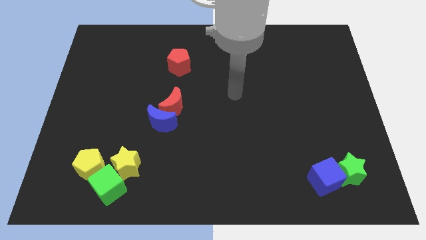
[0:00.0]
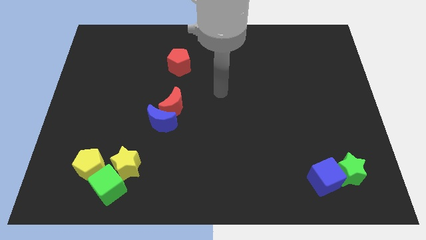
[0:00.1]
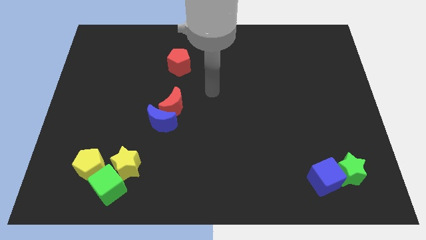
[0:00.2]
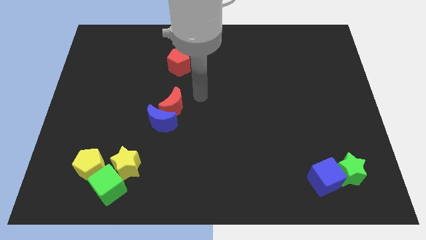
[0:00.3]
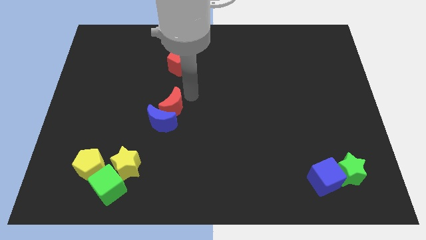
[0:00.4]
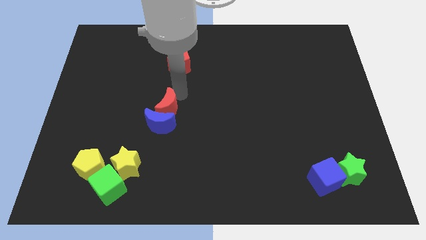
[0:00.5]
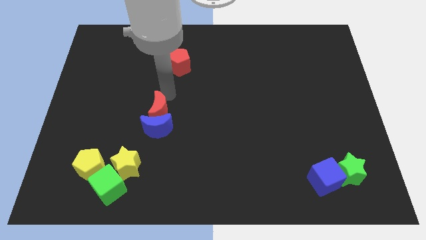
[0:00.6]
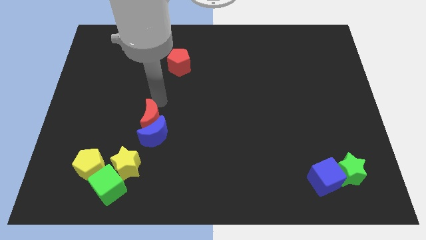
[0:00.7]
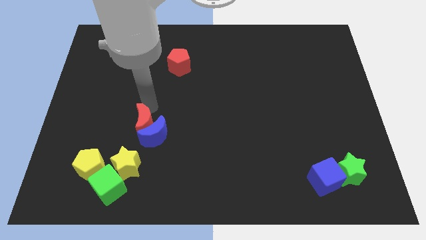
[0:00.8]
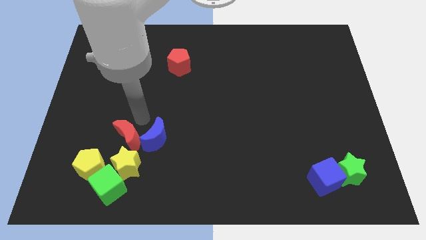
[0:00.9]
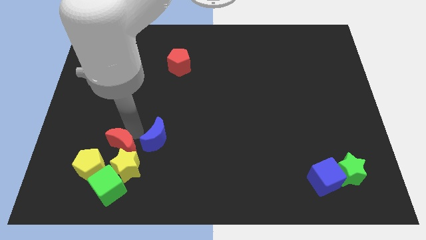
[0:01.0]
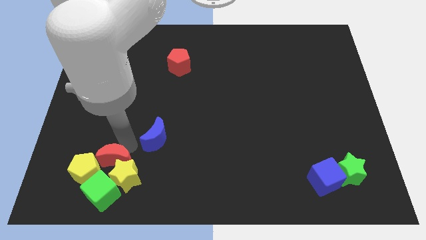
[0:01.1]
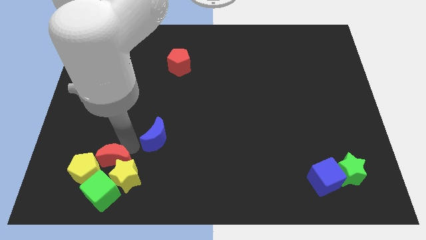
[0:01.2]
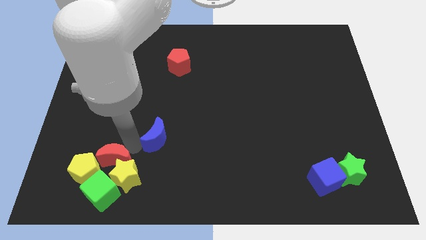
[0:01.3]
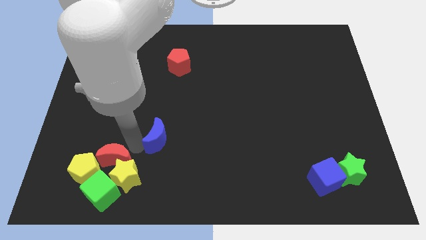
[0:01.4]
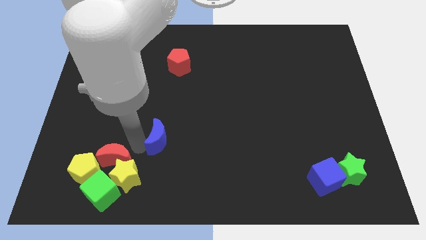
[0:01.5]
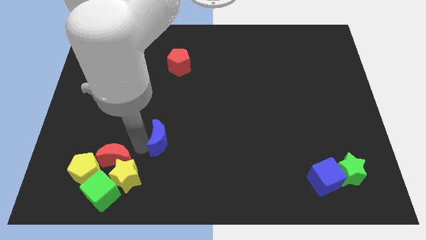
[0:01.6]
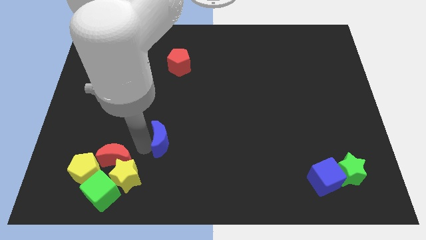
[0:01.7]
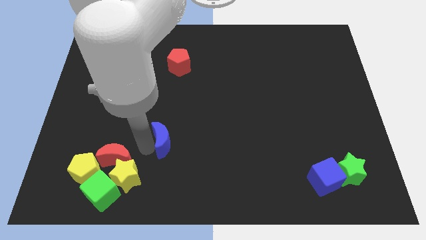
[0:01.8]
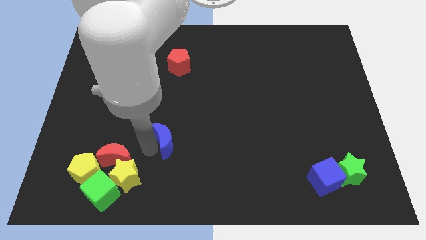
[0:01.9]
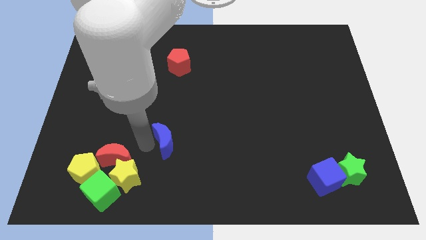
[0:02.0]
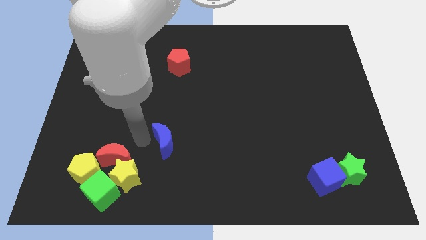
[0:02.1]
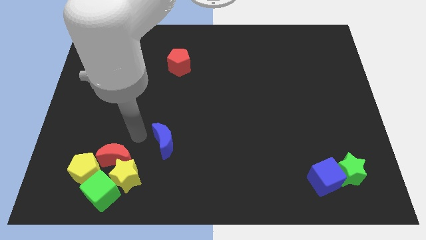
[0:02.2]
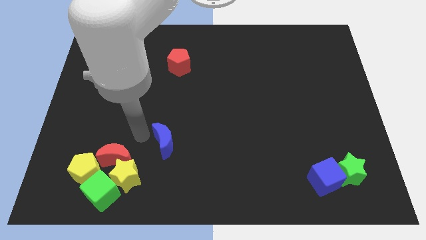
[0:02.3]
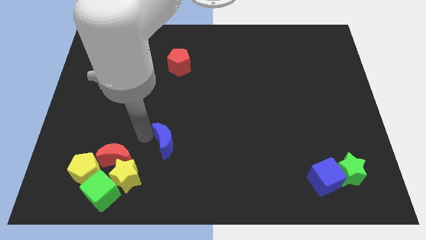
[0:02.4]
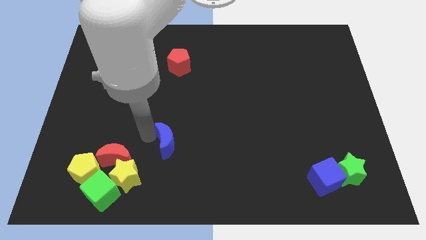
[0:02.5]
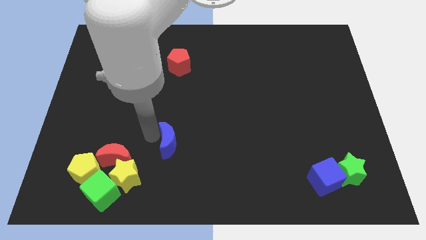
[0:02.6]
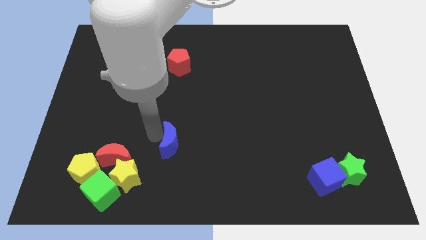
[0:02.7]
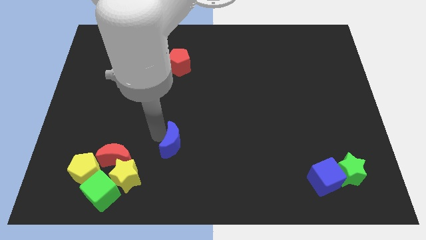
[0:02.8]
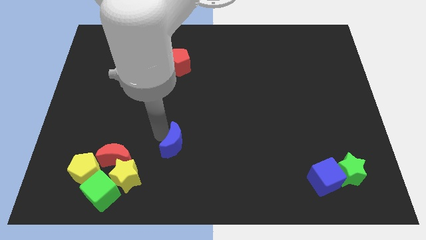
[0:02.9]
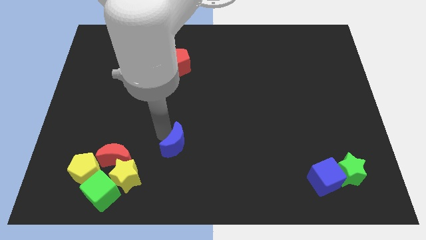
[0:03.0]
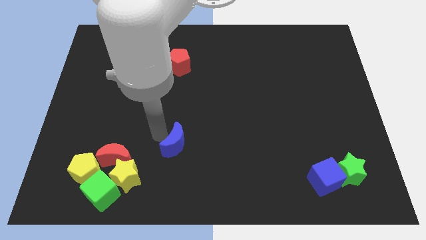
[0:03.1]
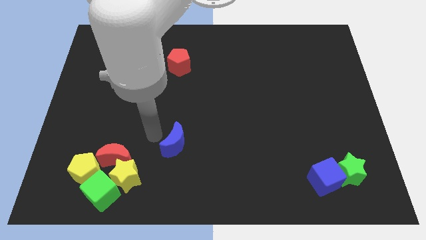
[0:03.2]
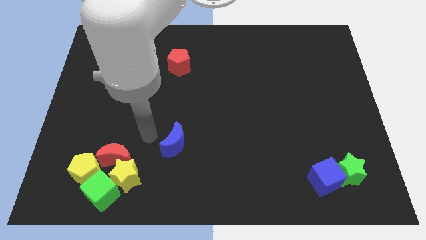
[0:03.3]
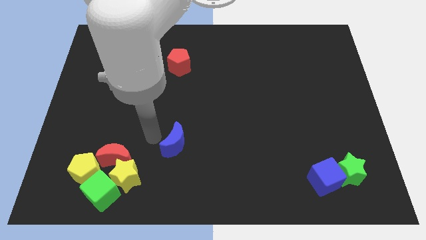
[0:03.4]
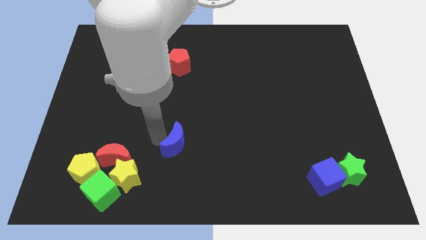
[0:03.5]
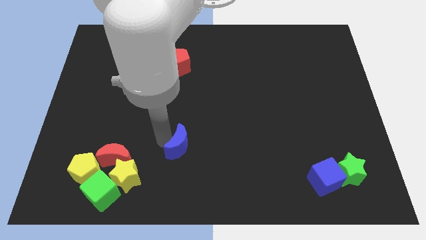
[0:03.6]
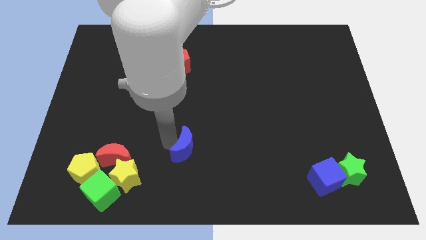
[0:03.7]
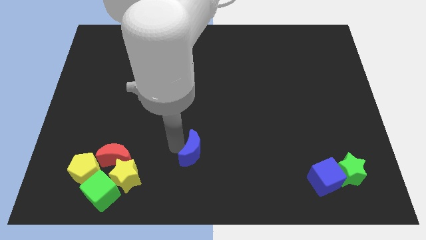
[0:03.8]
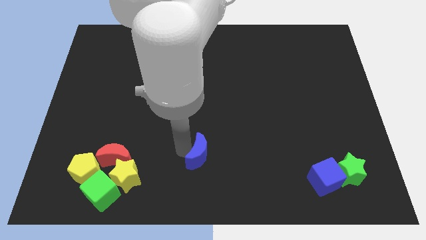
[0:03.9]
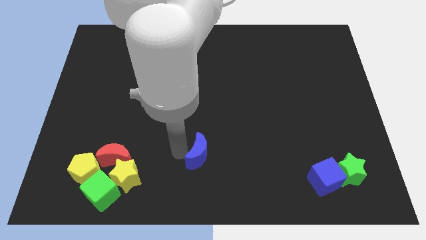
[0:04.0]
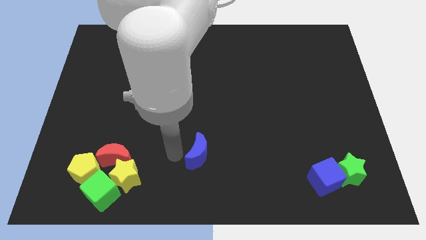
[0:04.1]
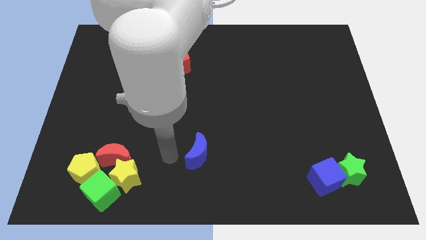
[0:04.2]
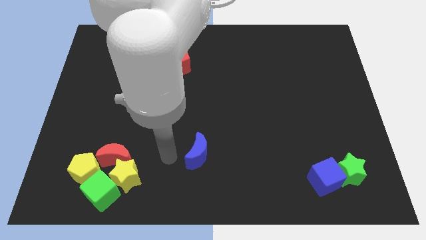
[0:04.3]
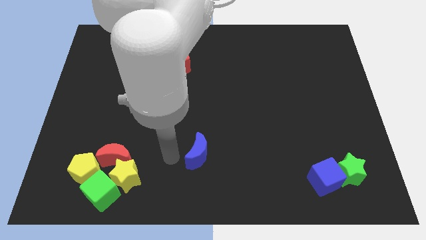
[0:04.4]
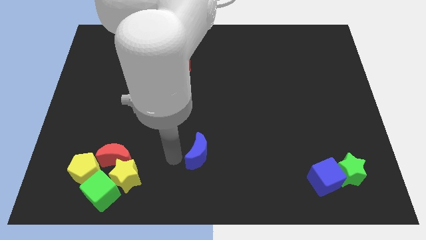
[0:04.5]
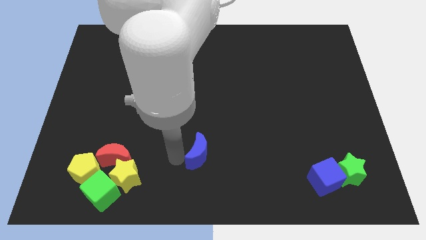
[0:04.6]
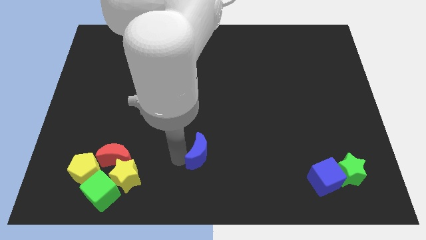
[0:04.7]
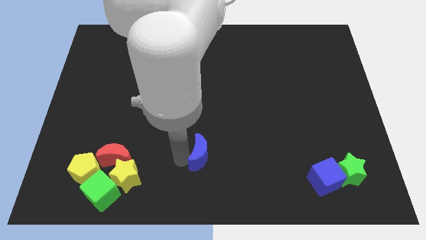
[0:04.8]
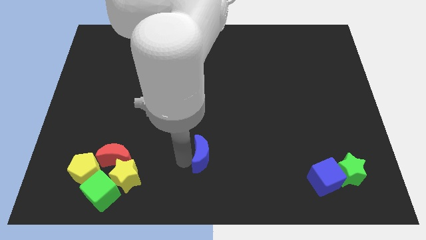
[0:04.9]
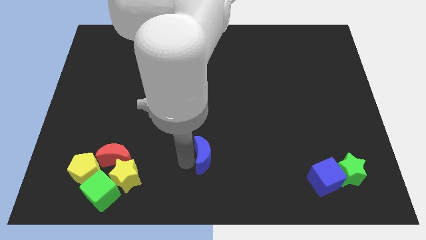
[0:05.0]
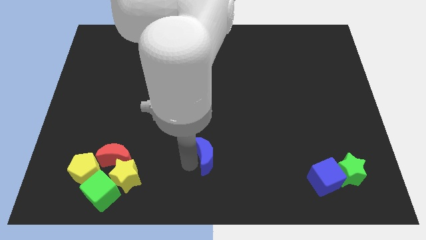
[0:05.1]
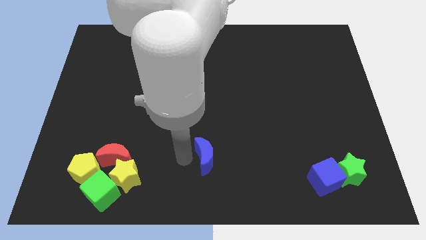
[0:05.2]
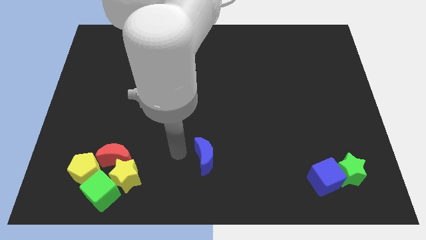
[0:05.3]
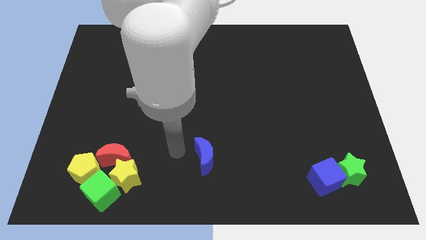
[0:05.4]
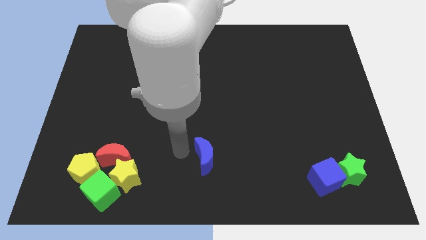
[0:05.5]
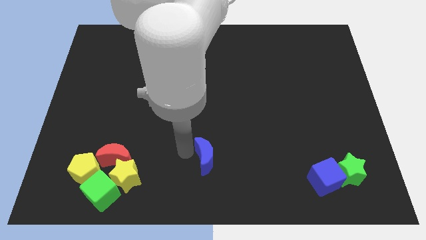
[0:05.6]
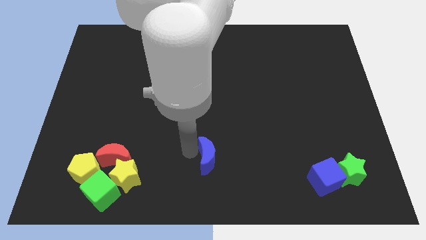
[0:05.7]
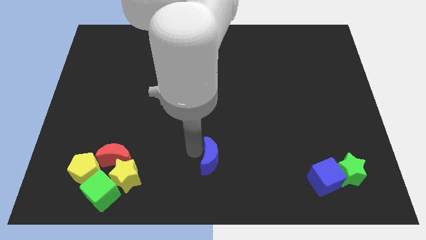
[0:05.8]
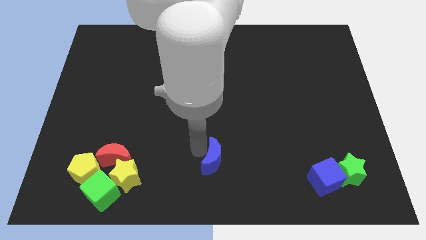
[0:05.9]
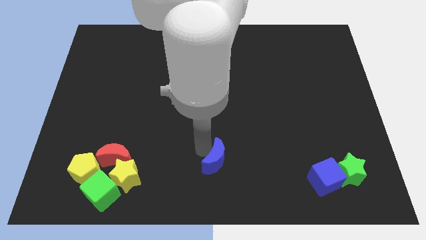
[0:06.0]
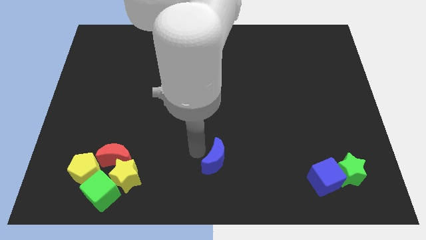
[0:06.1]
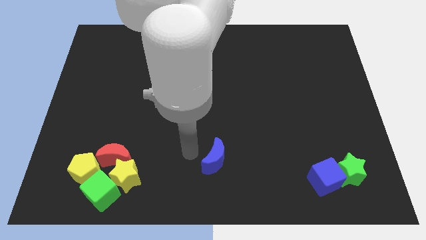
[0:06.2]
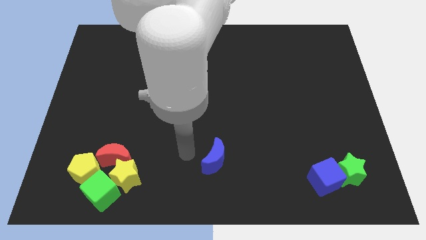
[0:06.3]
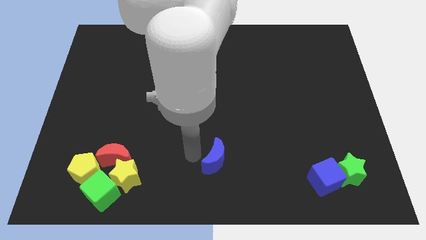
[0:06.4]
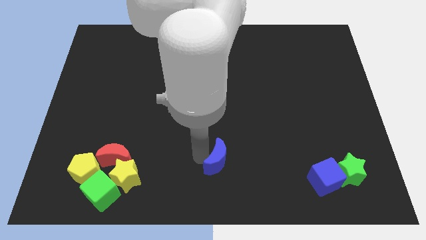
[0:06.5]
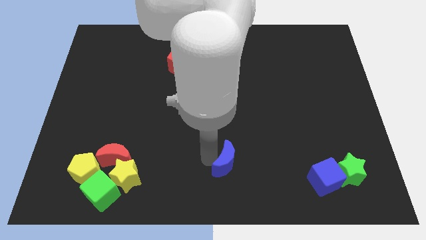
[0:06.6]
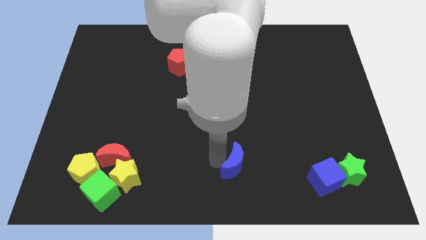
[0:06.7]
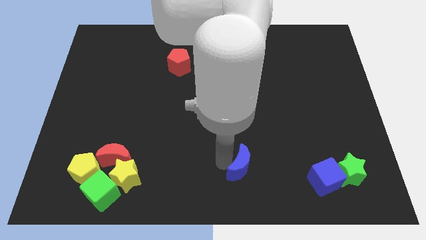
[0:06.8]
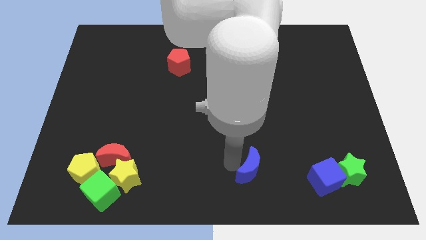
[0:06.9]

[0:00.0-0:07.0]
push the blue moon to the left side of the blue cube
